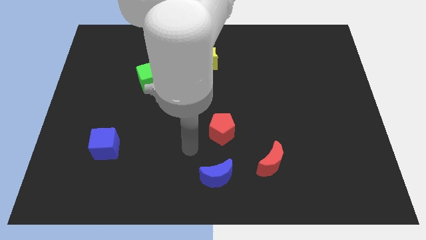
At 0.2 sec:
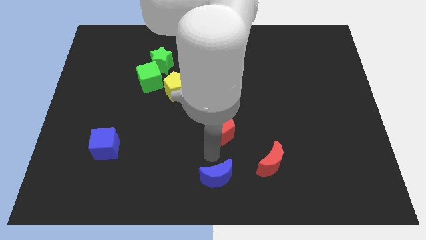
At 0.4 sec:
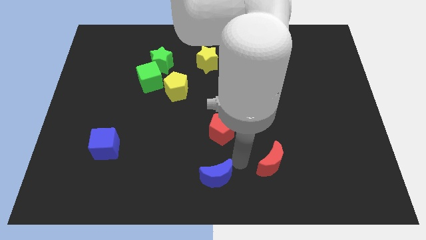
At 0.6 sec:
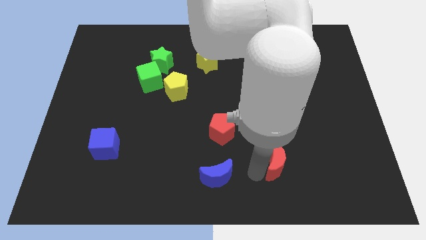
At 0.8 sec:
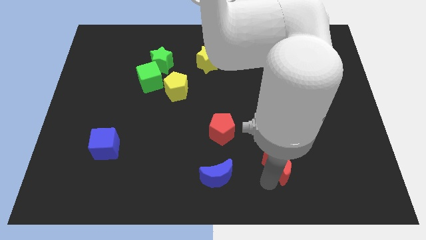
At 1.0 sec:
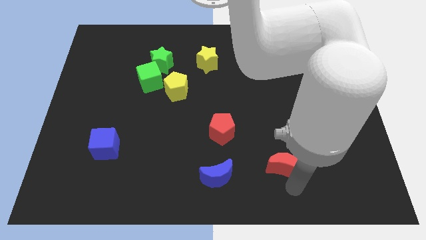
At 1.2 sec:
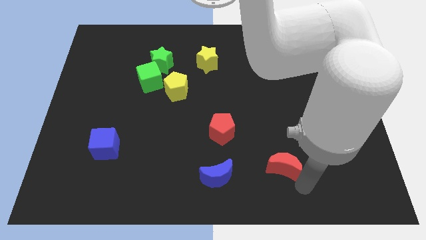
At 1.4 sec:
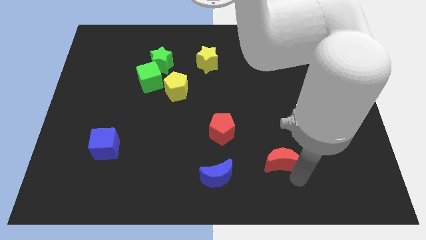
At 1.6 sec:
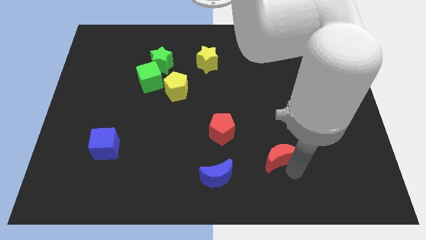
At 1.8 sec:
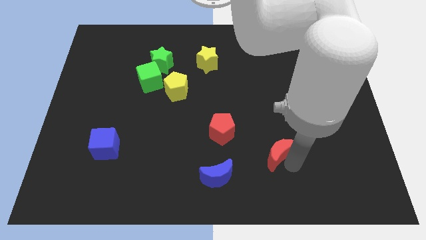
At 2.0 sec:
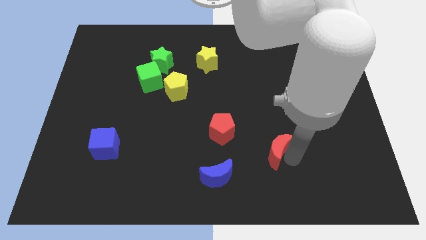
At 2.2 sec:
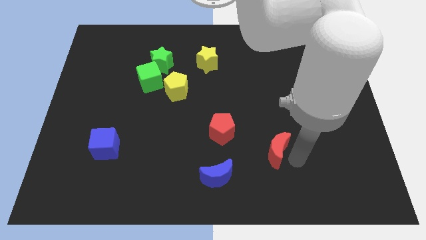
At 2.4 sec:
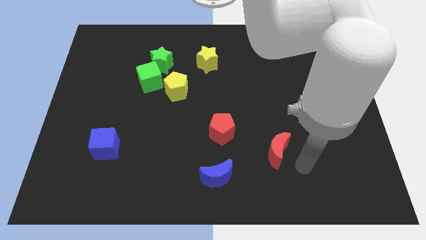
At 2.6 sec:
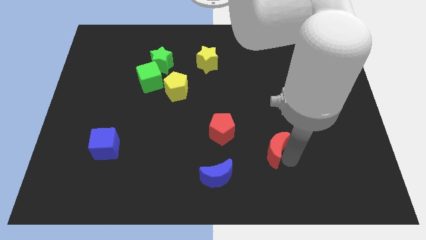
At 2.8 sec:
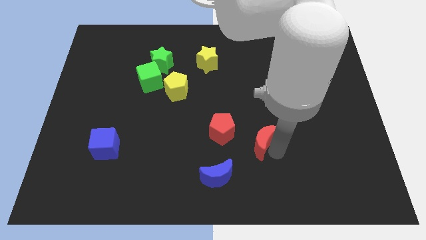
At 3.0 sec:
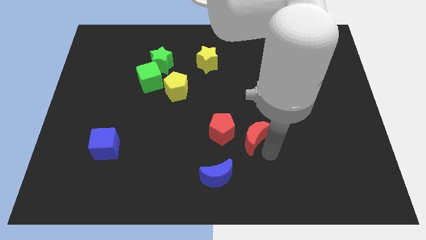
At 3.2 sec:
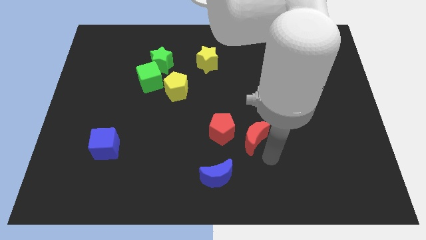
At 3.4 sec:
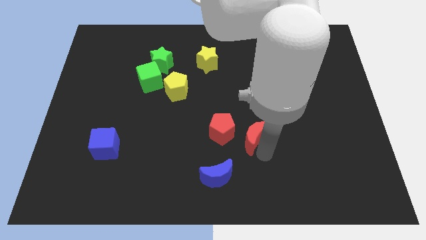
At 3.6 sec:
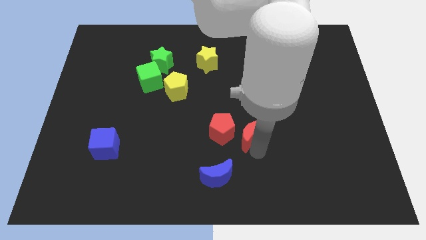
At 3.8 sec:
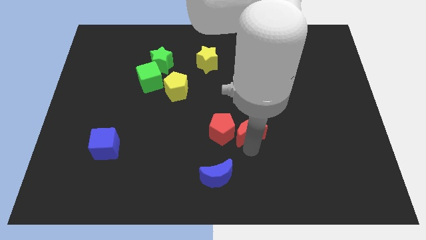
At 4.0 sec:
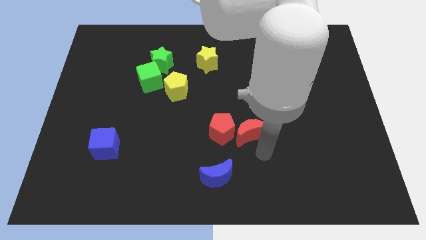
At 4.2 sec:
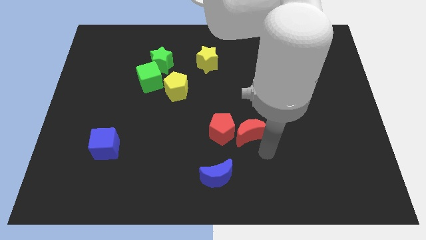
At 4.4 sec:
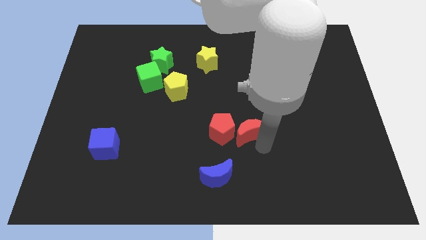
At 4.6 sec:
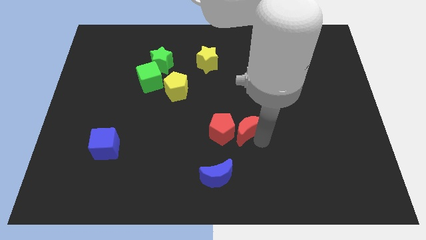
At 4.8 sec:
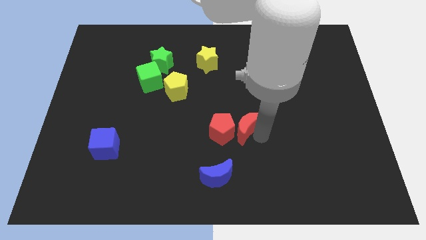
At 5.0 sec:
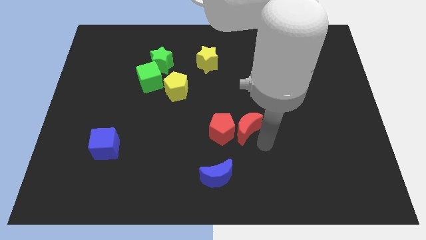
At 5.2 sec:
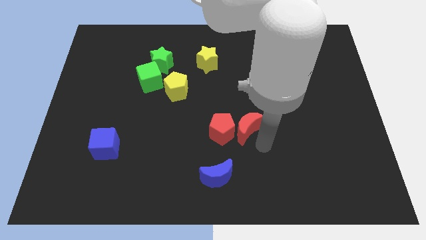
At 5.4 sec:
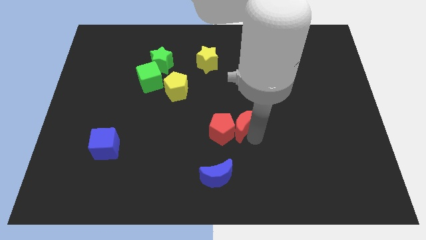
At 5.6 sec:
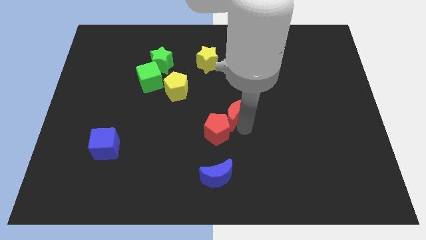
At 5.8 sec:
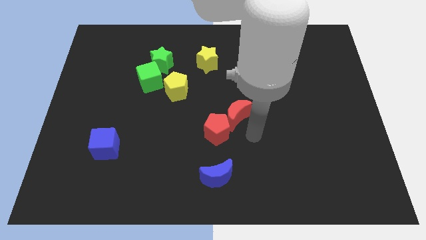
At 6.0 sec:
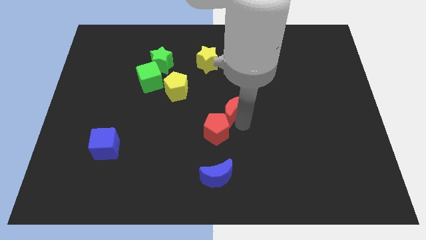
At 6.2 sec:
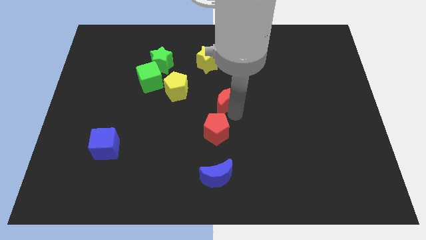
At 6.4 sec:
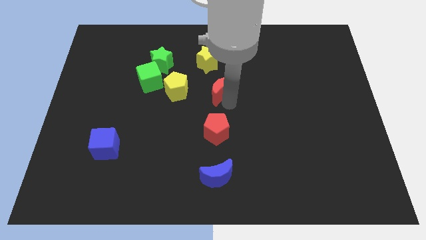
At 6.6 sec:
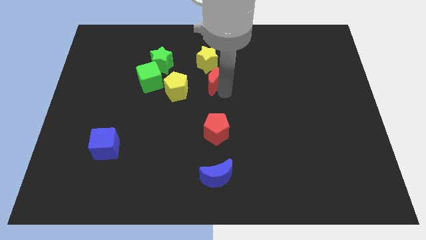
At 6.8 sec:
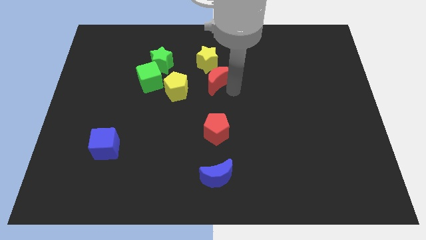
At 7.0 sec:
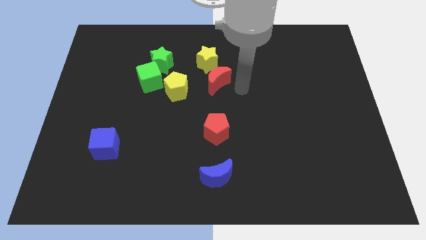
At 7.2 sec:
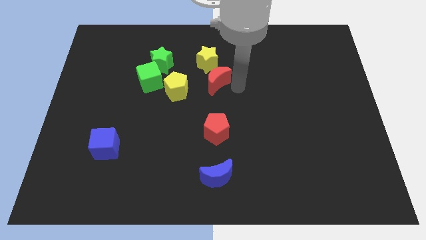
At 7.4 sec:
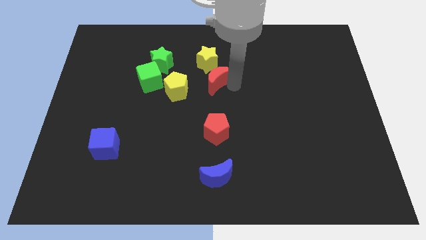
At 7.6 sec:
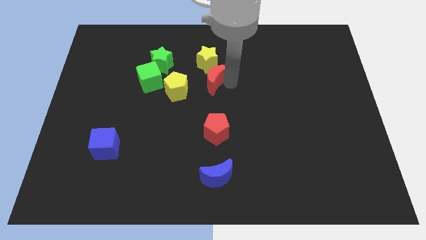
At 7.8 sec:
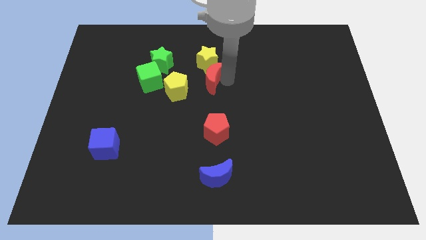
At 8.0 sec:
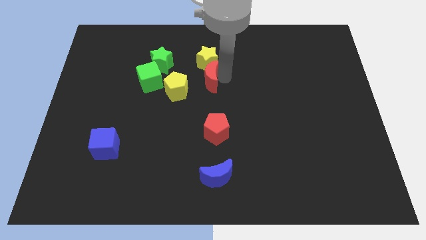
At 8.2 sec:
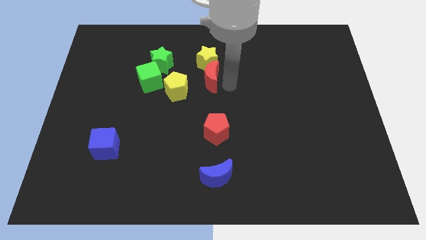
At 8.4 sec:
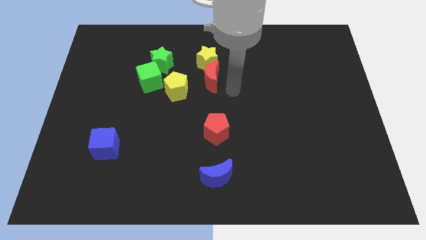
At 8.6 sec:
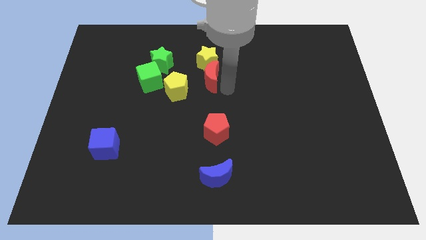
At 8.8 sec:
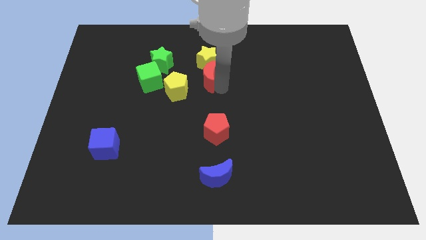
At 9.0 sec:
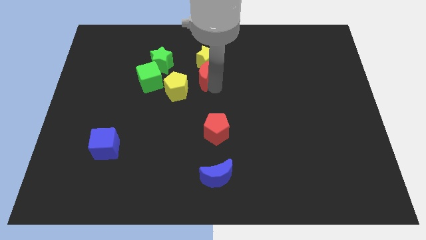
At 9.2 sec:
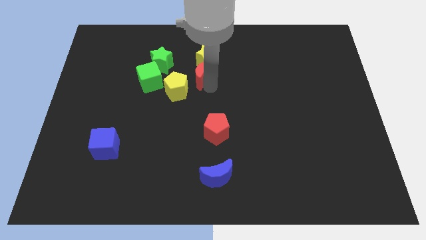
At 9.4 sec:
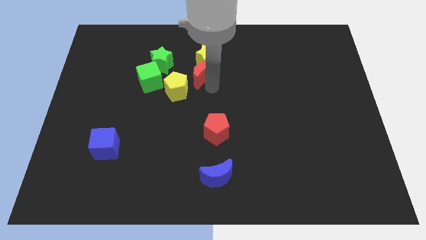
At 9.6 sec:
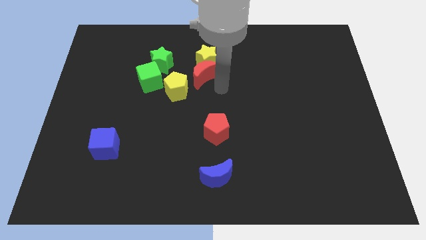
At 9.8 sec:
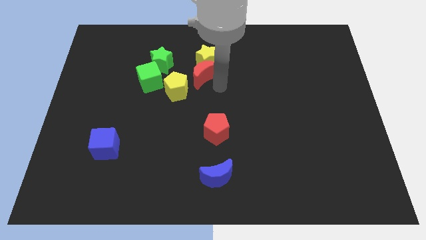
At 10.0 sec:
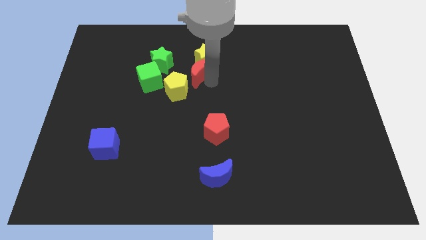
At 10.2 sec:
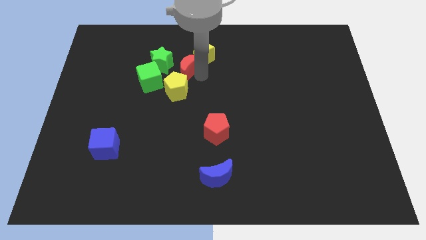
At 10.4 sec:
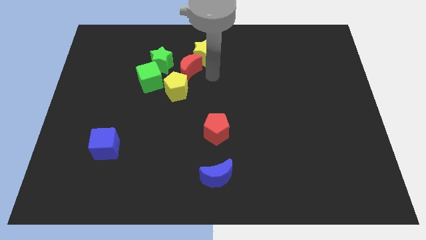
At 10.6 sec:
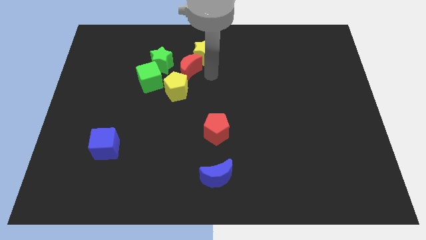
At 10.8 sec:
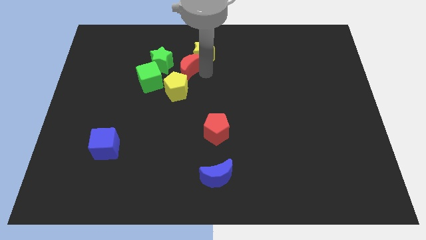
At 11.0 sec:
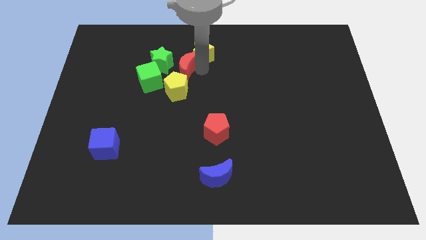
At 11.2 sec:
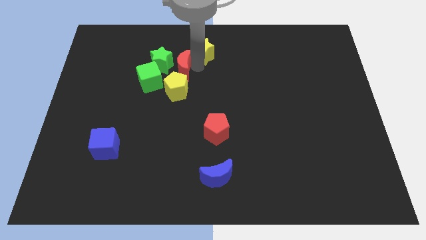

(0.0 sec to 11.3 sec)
move the red moon to the green star

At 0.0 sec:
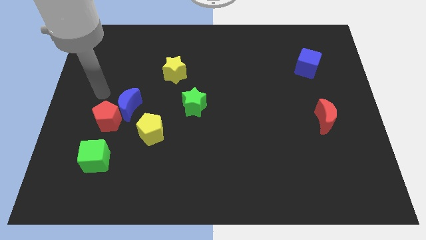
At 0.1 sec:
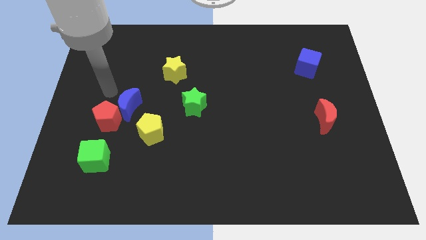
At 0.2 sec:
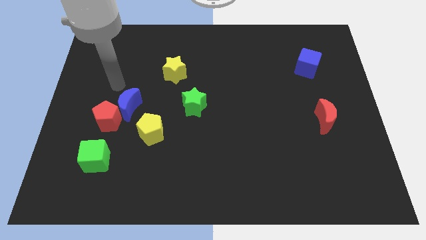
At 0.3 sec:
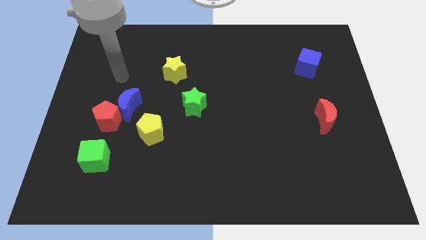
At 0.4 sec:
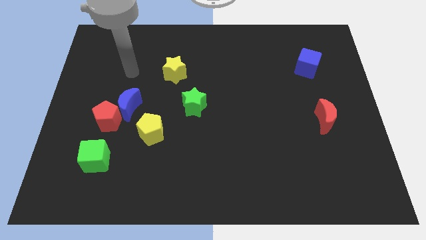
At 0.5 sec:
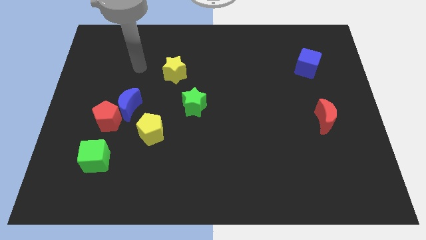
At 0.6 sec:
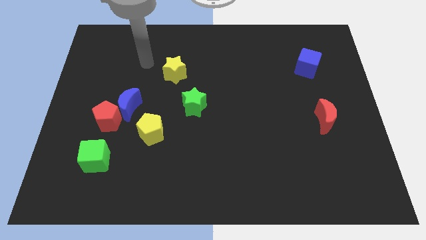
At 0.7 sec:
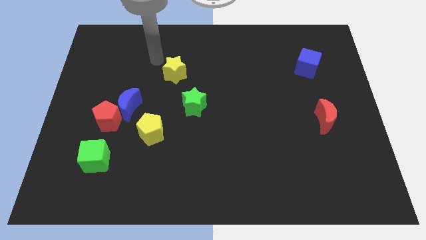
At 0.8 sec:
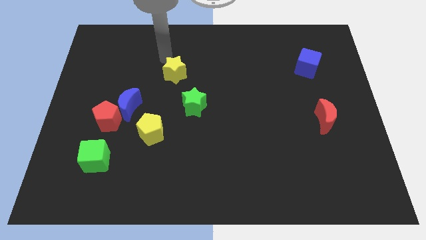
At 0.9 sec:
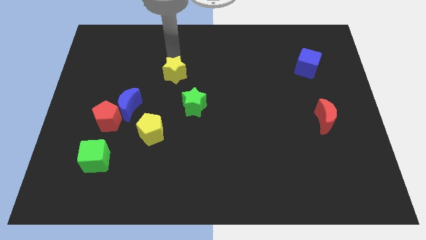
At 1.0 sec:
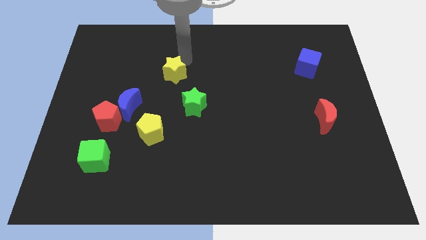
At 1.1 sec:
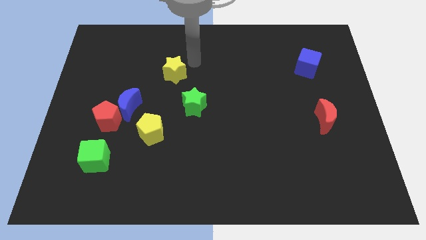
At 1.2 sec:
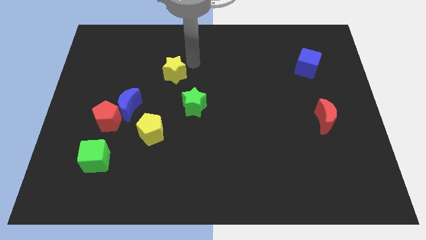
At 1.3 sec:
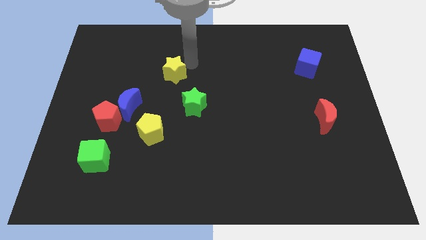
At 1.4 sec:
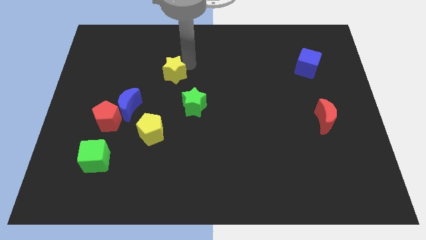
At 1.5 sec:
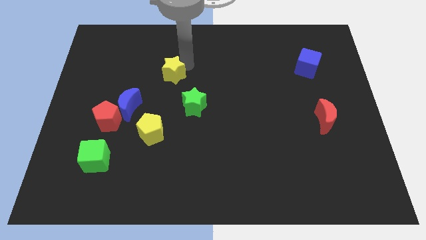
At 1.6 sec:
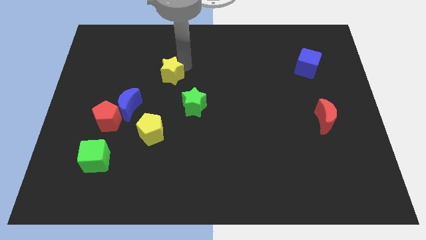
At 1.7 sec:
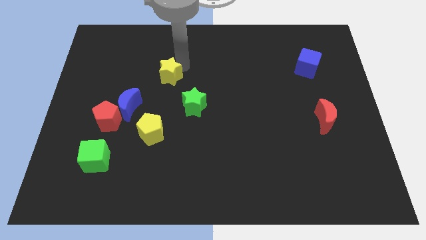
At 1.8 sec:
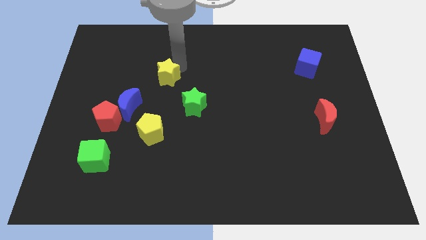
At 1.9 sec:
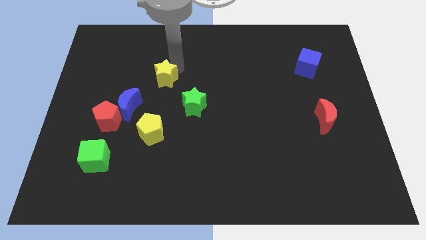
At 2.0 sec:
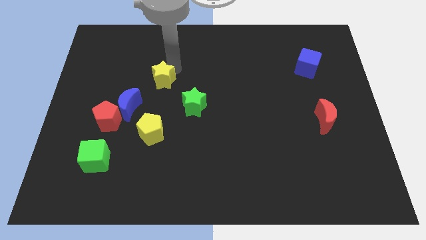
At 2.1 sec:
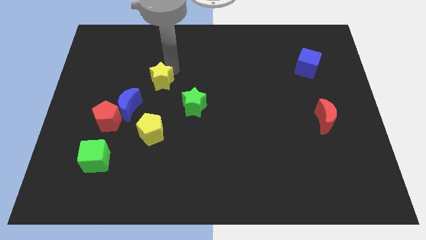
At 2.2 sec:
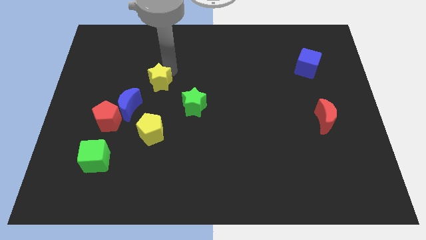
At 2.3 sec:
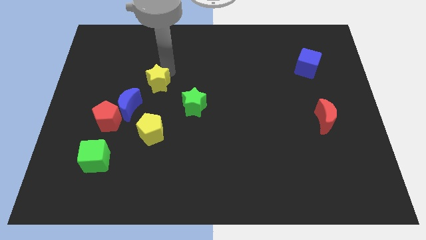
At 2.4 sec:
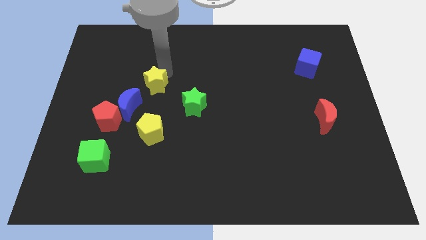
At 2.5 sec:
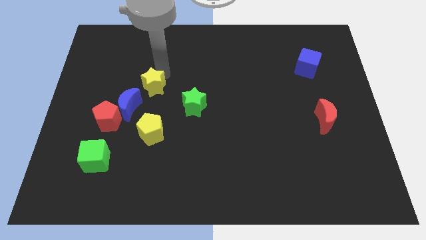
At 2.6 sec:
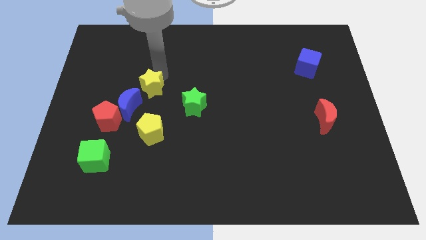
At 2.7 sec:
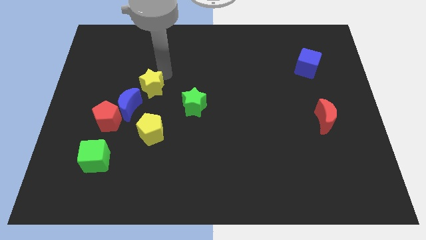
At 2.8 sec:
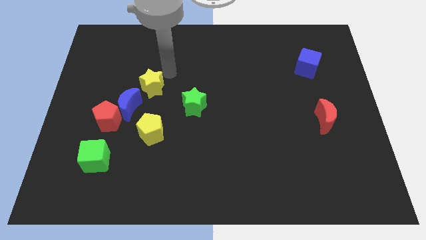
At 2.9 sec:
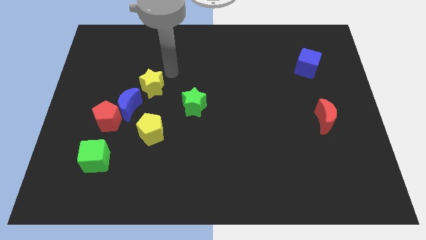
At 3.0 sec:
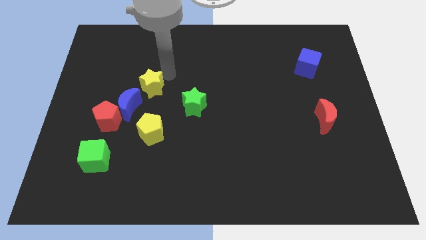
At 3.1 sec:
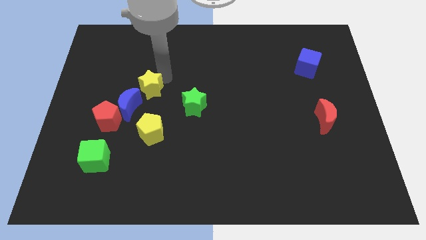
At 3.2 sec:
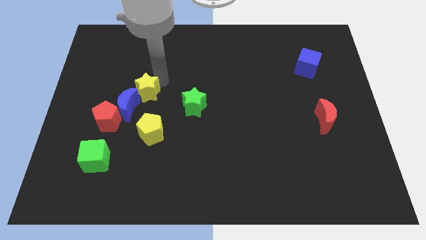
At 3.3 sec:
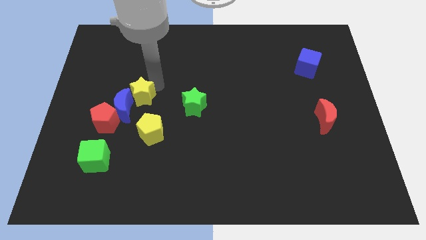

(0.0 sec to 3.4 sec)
push the yellow star next to the blue moon
